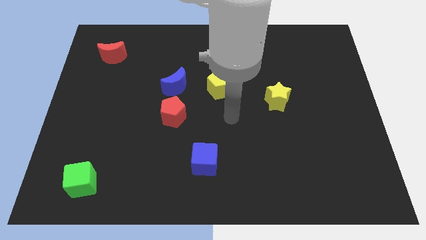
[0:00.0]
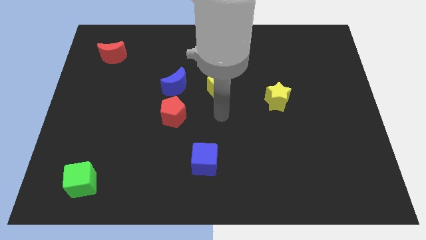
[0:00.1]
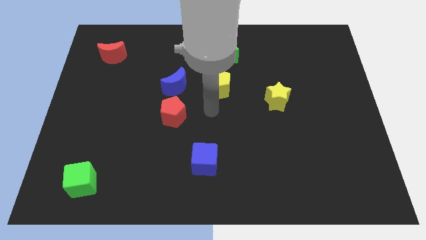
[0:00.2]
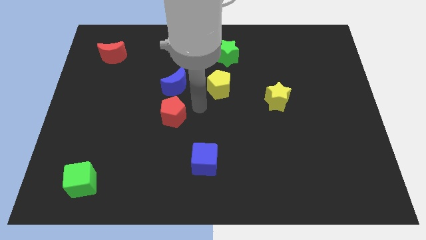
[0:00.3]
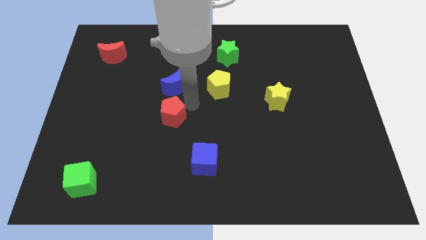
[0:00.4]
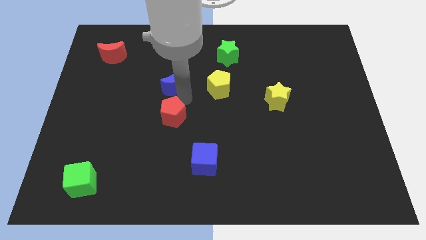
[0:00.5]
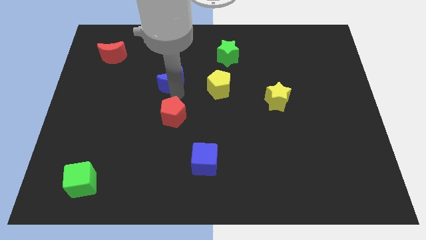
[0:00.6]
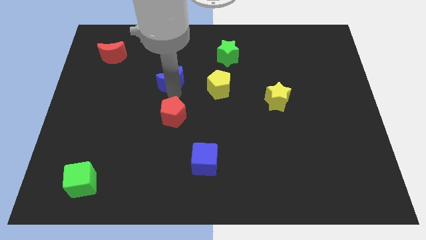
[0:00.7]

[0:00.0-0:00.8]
separate the red pentagon from the blue moon

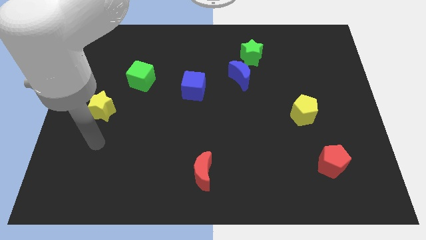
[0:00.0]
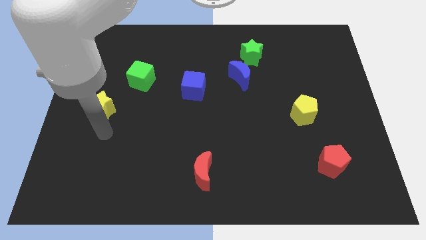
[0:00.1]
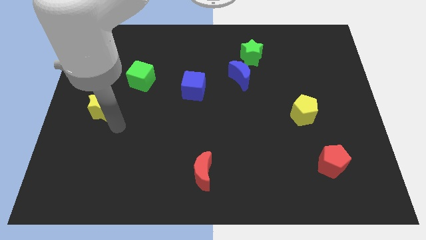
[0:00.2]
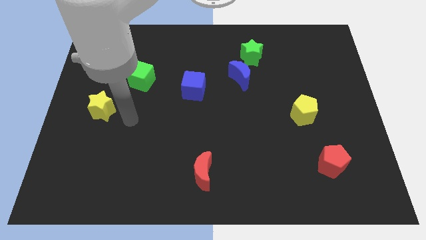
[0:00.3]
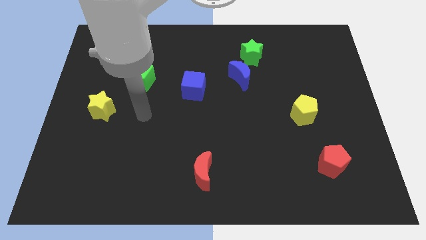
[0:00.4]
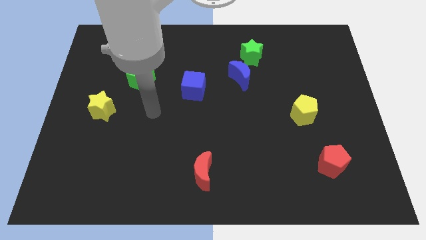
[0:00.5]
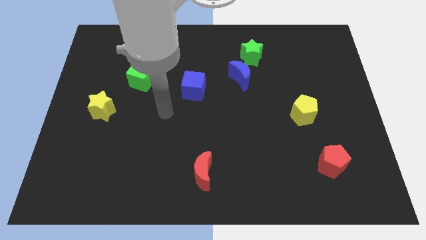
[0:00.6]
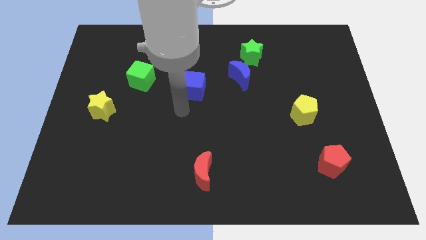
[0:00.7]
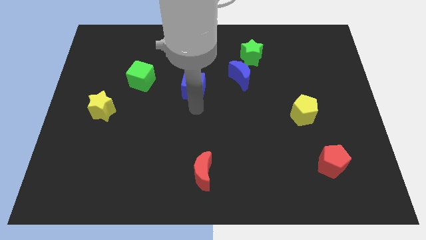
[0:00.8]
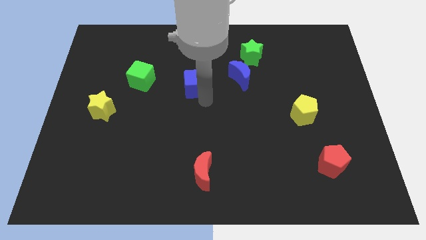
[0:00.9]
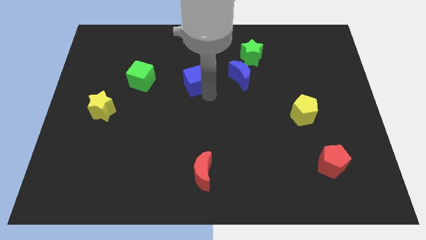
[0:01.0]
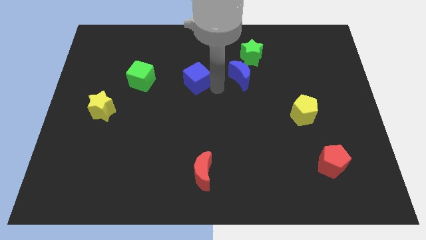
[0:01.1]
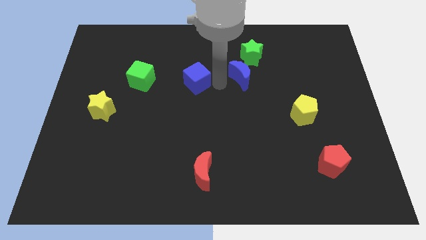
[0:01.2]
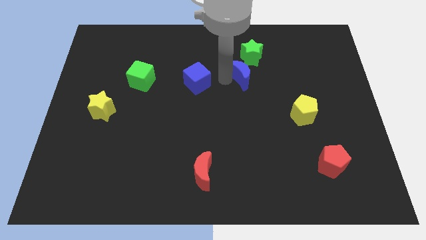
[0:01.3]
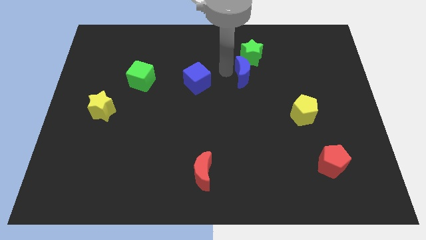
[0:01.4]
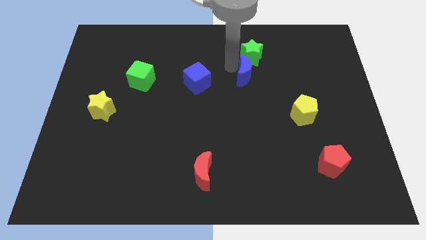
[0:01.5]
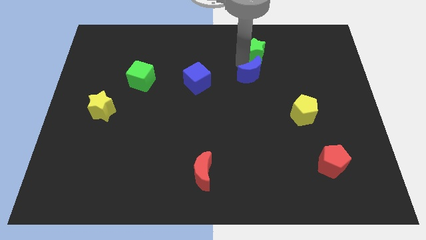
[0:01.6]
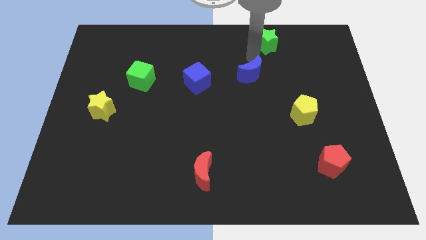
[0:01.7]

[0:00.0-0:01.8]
move the blue moon away from the green star

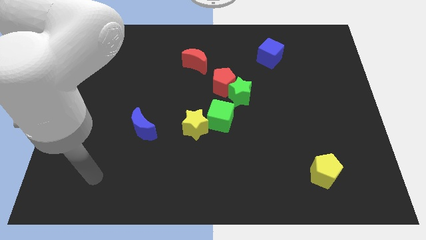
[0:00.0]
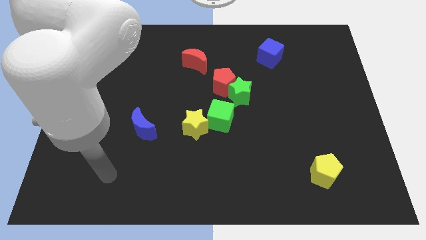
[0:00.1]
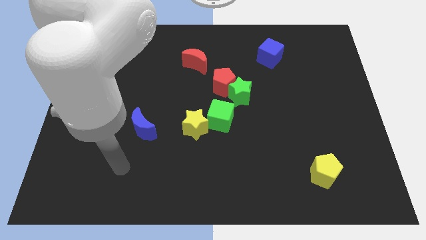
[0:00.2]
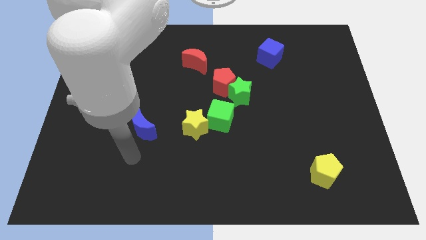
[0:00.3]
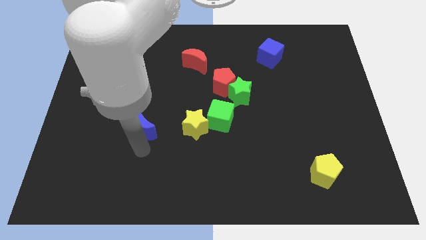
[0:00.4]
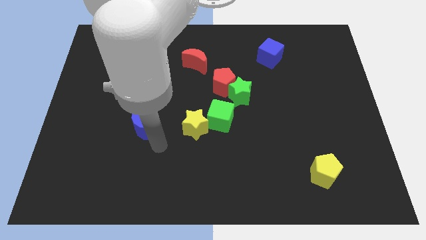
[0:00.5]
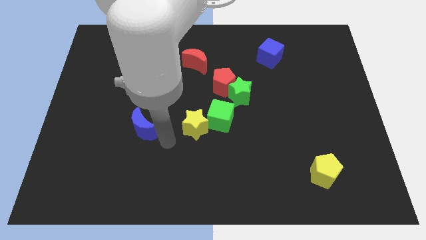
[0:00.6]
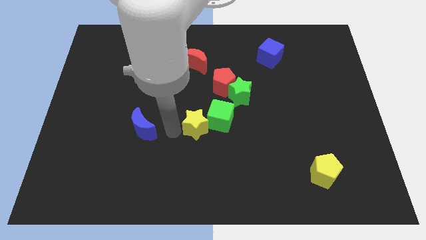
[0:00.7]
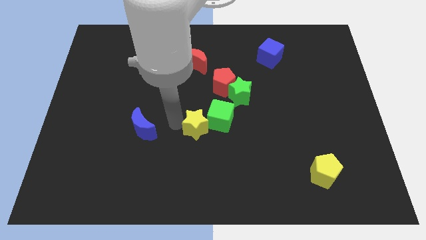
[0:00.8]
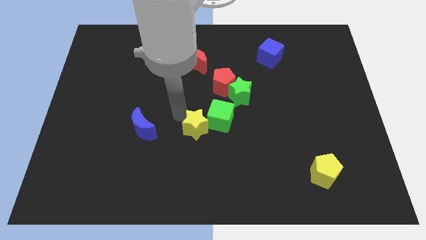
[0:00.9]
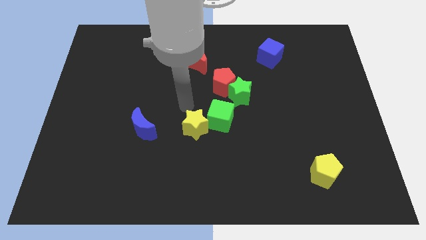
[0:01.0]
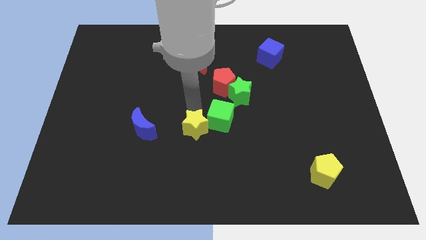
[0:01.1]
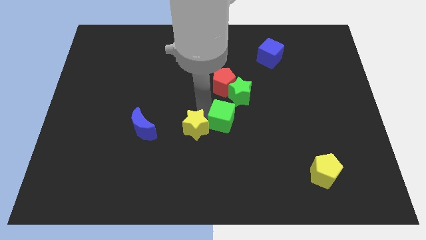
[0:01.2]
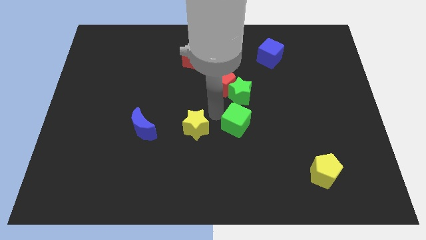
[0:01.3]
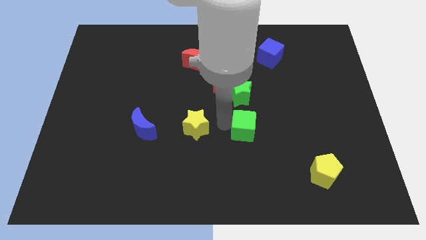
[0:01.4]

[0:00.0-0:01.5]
pull the yellow star apart from the green cube

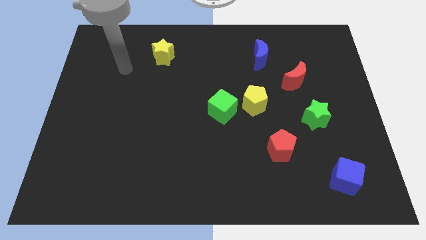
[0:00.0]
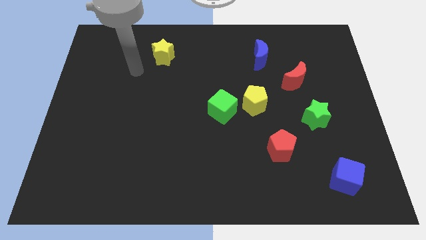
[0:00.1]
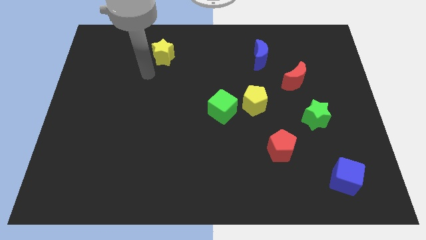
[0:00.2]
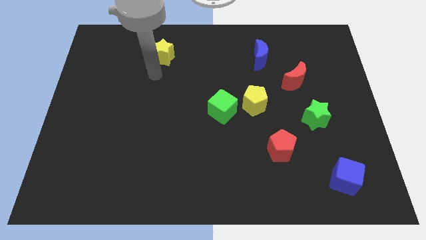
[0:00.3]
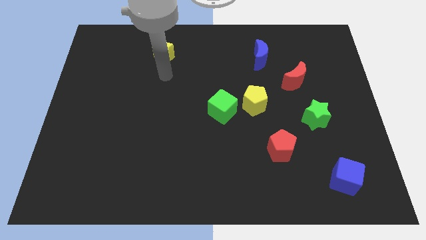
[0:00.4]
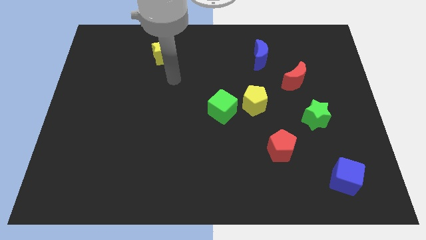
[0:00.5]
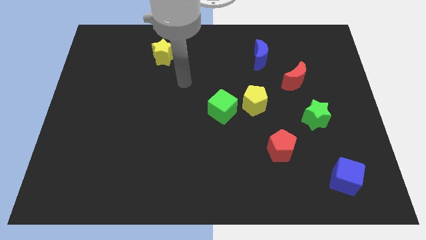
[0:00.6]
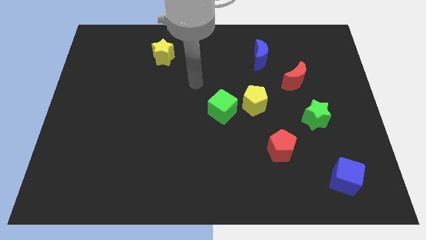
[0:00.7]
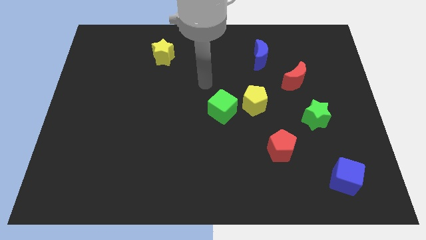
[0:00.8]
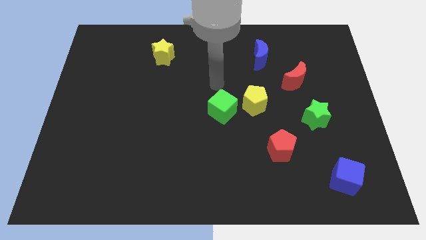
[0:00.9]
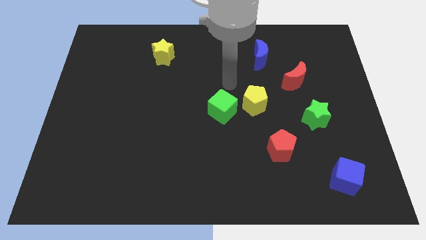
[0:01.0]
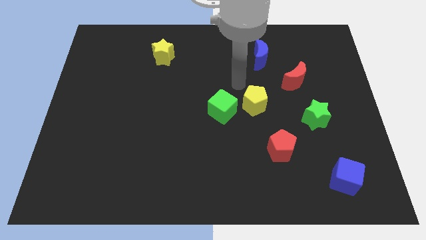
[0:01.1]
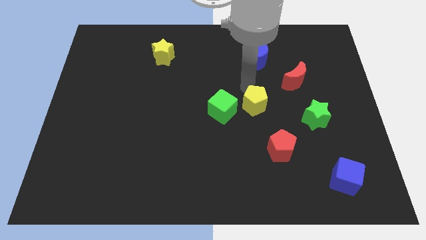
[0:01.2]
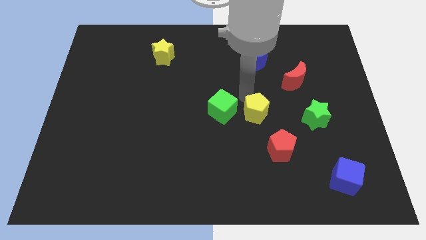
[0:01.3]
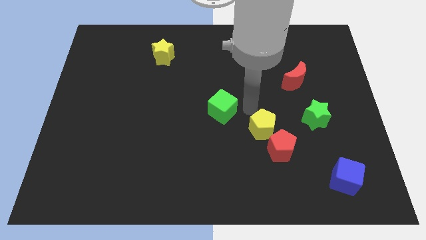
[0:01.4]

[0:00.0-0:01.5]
pull the green cube apart from the yellow pentagon

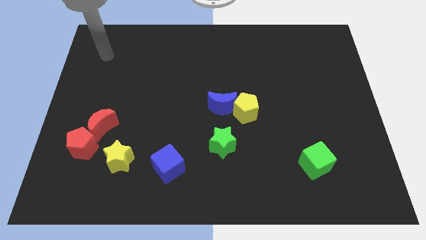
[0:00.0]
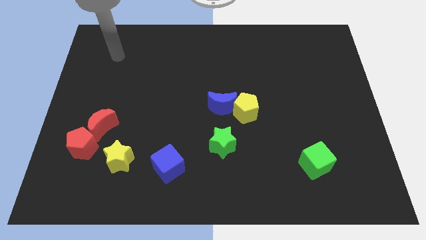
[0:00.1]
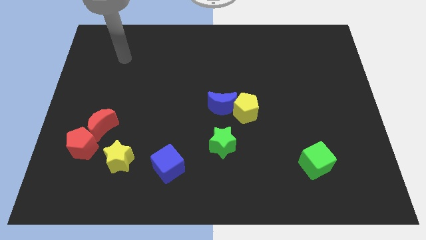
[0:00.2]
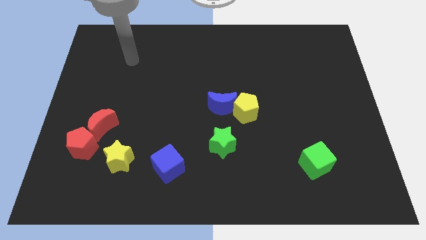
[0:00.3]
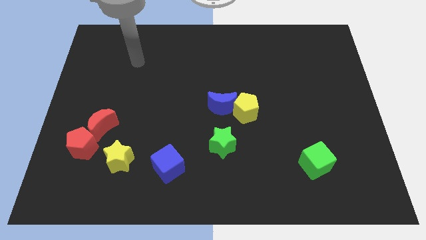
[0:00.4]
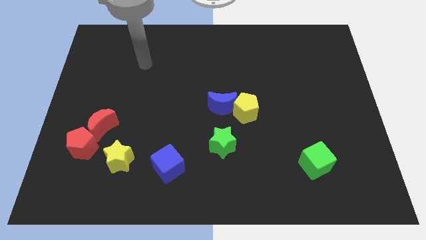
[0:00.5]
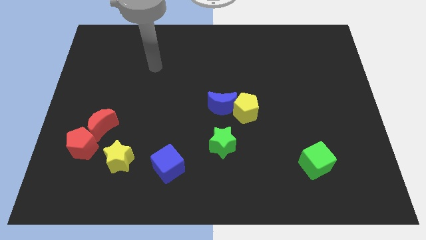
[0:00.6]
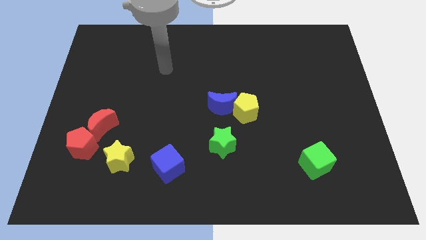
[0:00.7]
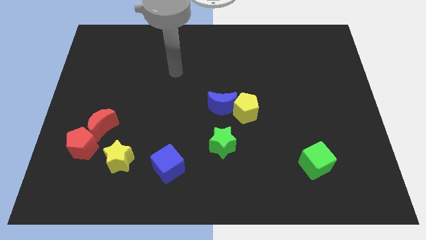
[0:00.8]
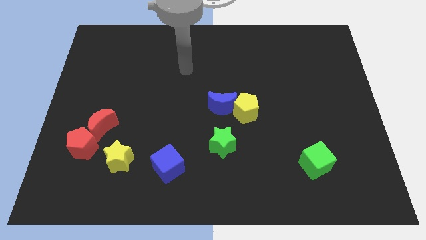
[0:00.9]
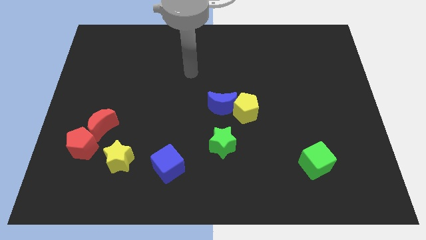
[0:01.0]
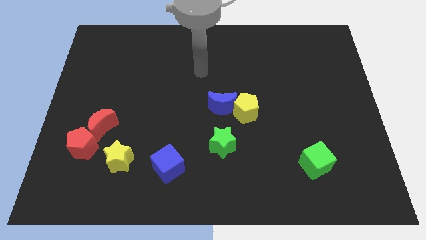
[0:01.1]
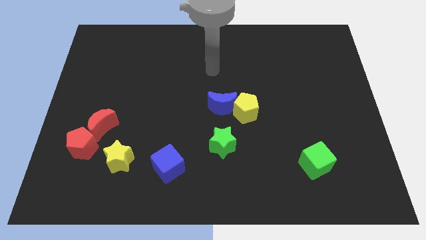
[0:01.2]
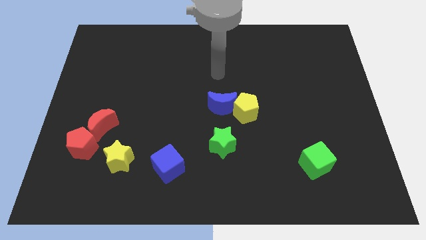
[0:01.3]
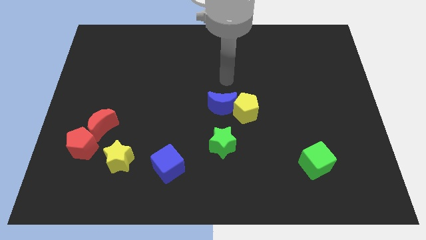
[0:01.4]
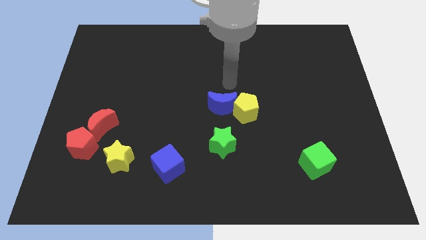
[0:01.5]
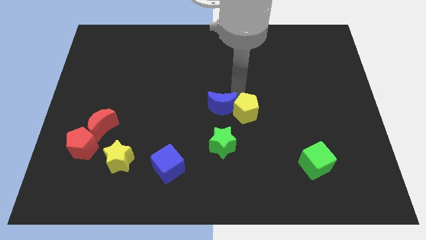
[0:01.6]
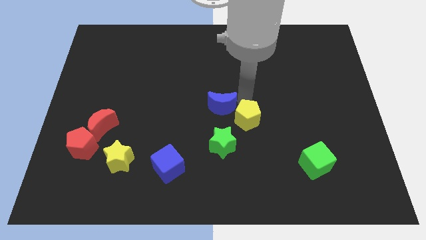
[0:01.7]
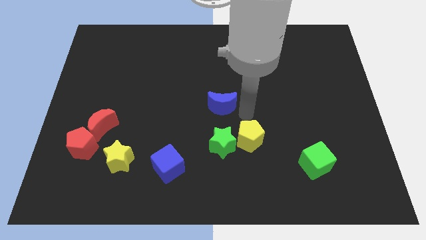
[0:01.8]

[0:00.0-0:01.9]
separate the blue moon from the yellow pentagon

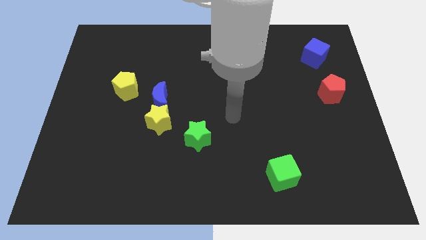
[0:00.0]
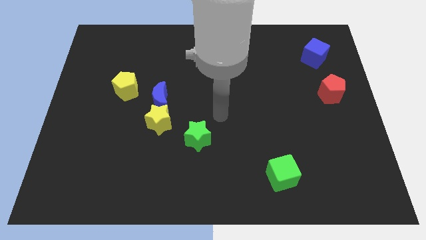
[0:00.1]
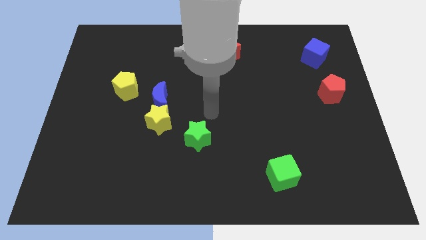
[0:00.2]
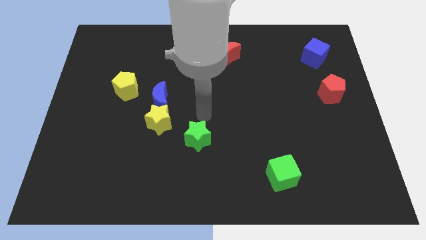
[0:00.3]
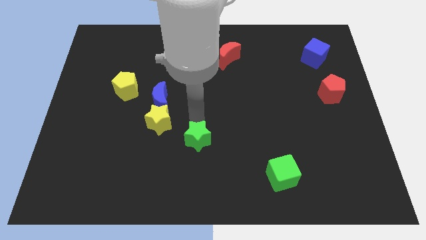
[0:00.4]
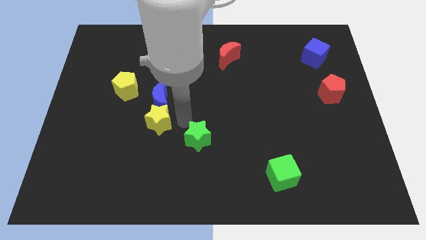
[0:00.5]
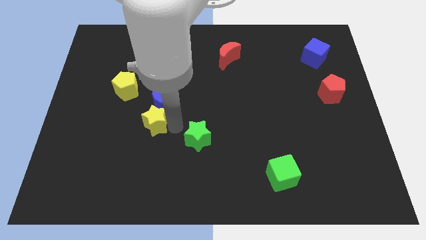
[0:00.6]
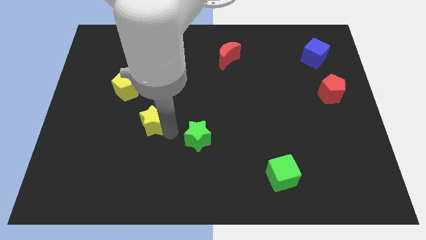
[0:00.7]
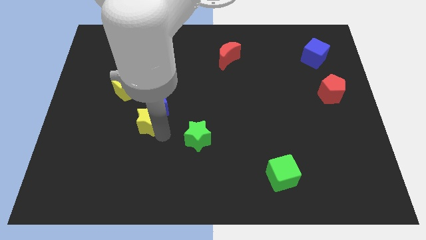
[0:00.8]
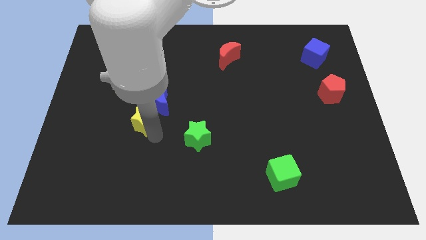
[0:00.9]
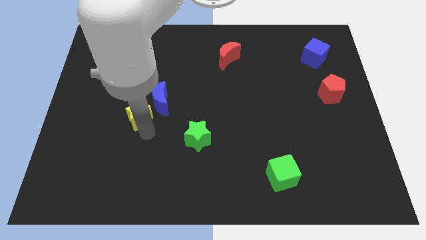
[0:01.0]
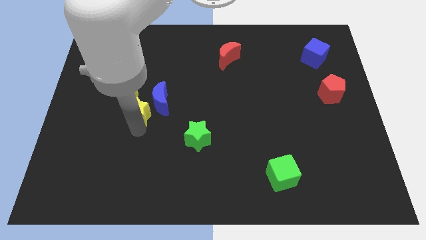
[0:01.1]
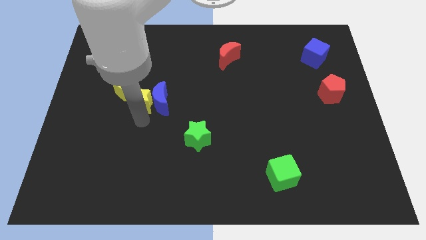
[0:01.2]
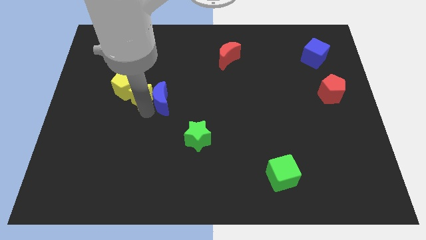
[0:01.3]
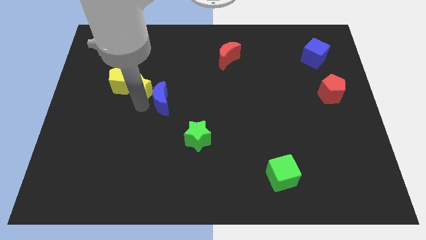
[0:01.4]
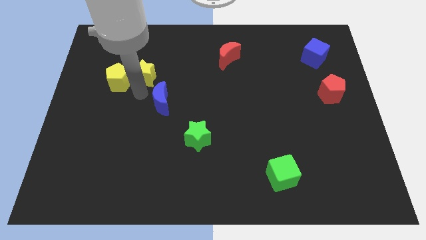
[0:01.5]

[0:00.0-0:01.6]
move the blue moon away from the yellow star and yellow pentagon

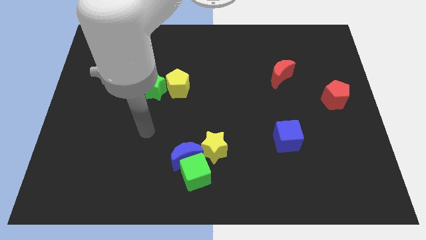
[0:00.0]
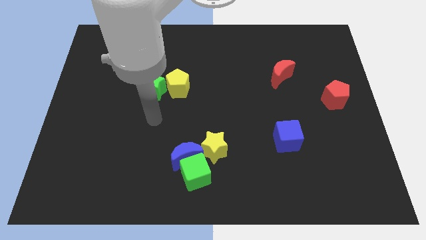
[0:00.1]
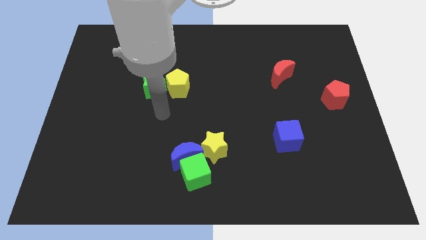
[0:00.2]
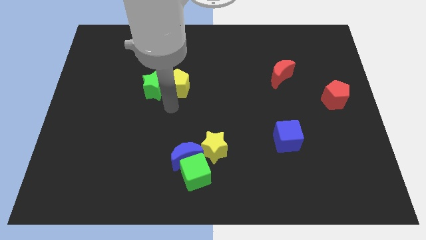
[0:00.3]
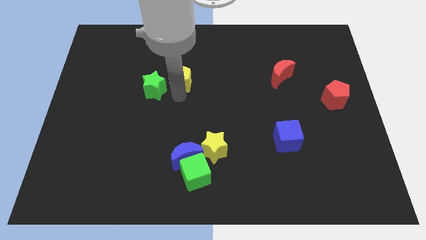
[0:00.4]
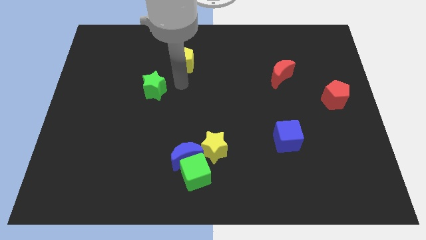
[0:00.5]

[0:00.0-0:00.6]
move the green star away from the yellow pentagon
